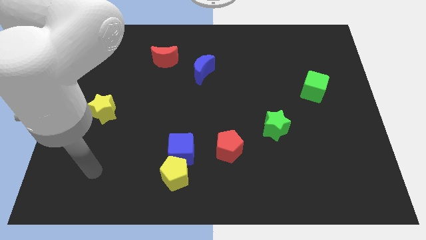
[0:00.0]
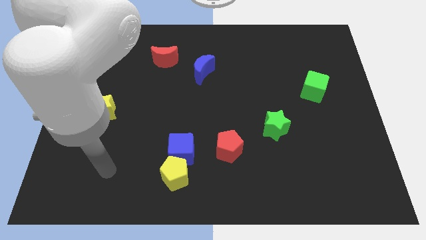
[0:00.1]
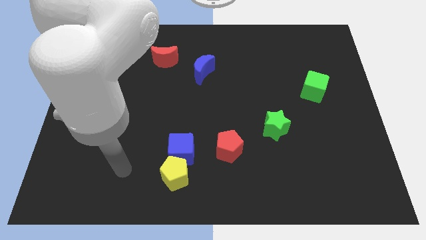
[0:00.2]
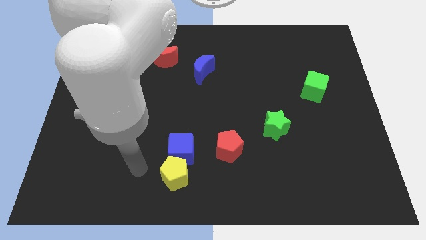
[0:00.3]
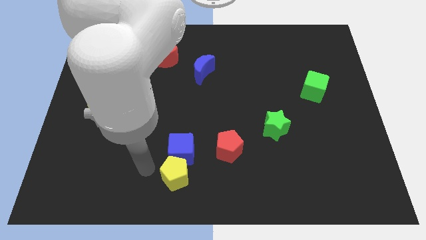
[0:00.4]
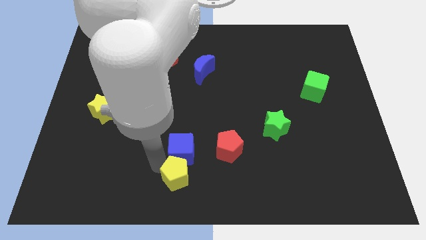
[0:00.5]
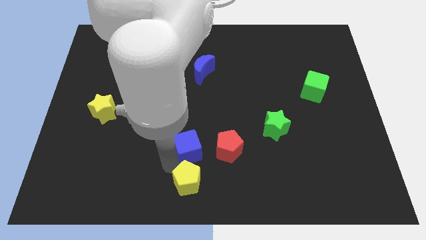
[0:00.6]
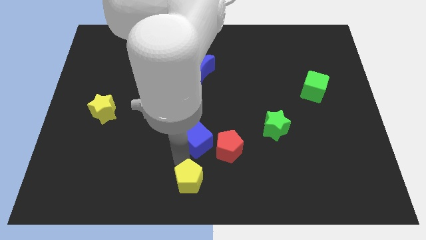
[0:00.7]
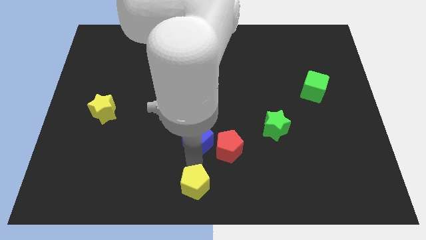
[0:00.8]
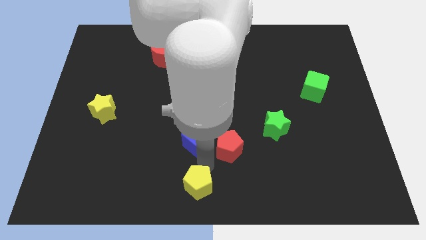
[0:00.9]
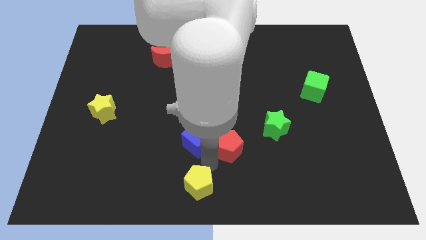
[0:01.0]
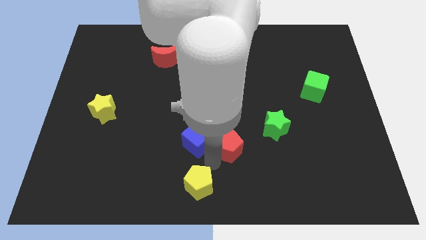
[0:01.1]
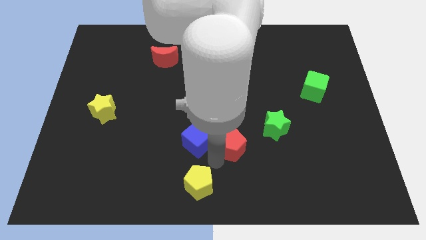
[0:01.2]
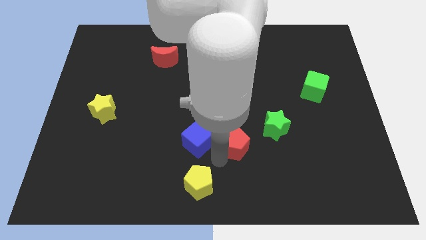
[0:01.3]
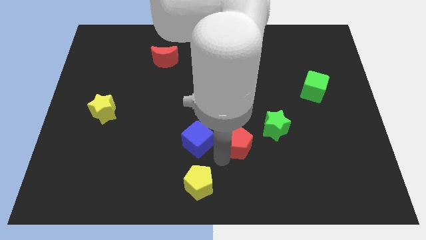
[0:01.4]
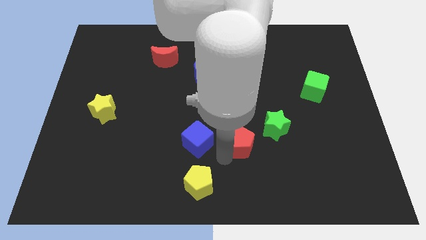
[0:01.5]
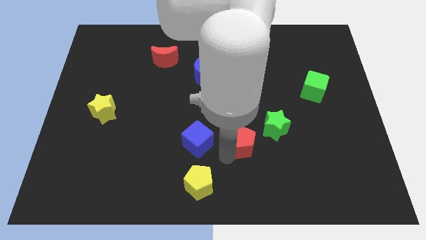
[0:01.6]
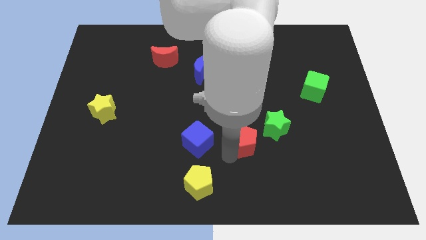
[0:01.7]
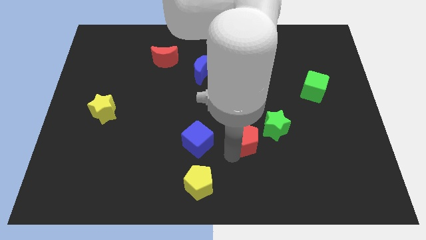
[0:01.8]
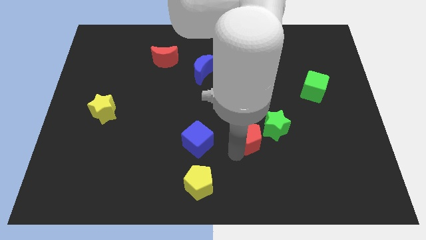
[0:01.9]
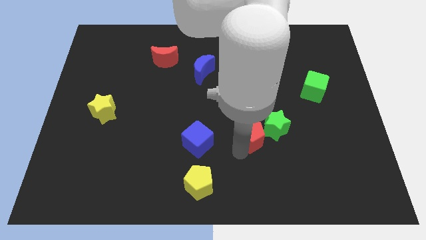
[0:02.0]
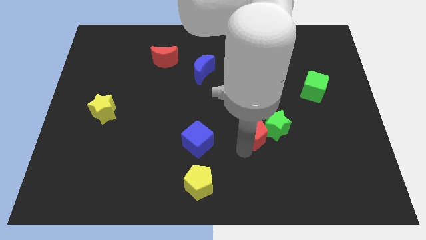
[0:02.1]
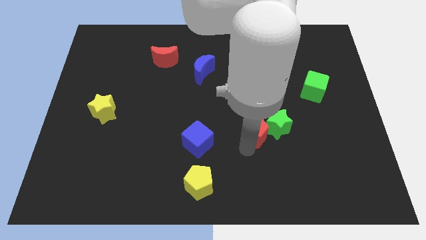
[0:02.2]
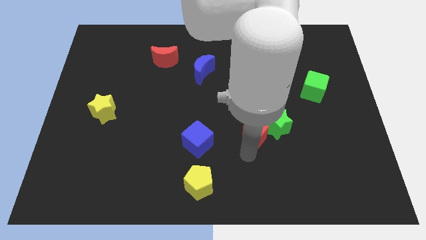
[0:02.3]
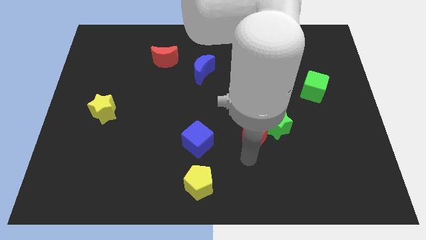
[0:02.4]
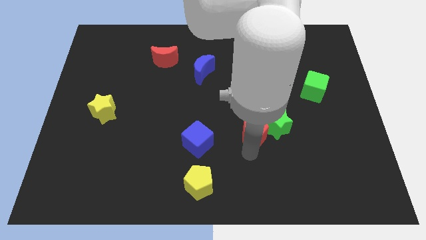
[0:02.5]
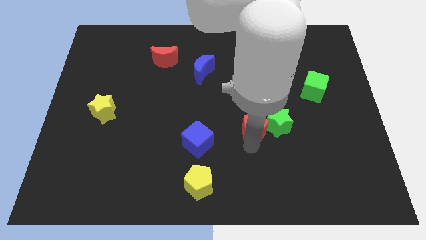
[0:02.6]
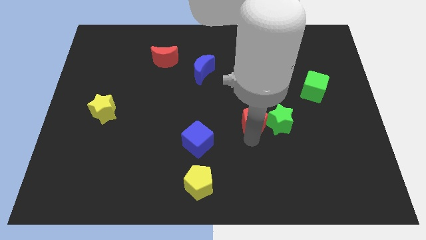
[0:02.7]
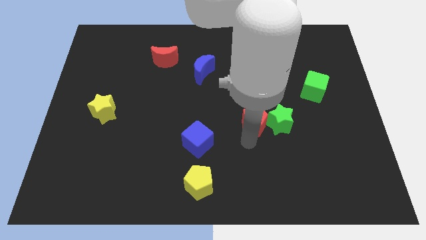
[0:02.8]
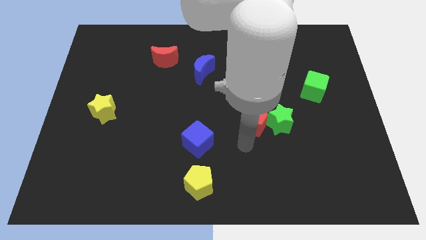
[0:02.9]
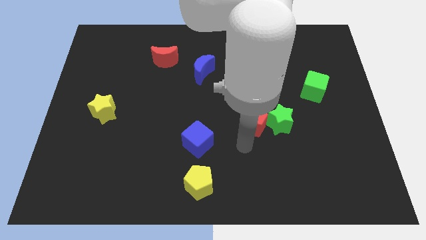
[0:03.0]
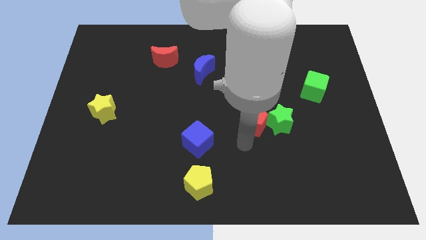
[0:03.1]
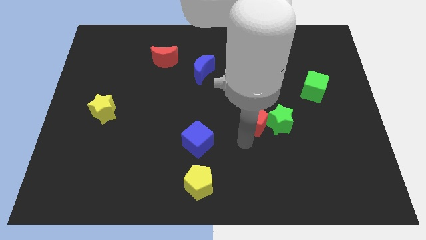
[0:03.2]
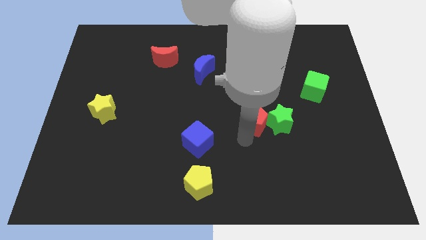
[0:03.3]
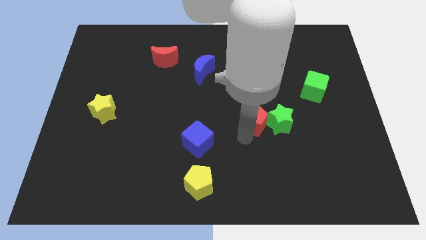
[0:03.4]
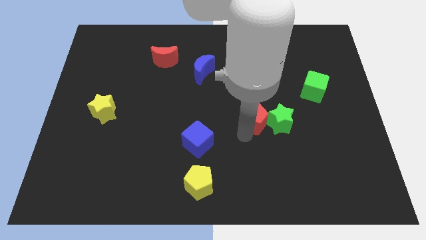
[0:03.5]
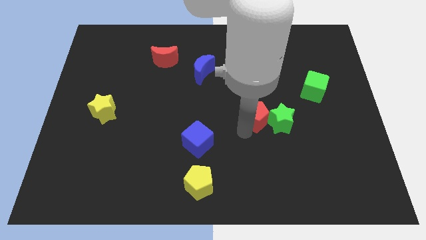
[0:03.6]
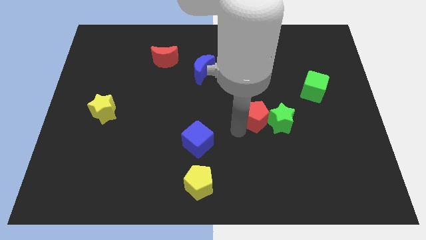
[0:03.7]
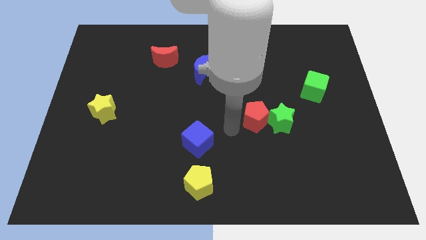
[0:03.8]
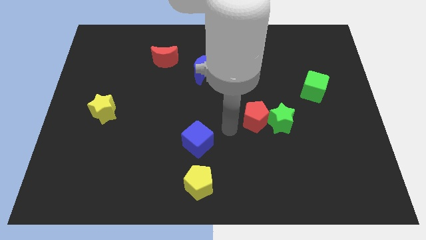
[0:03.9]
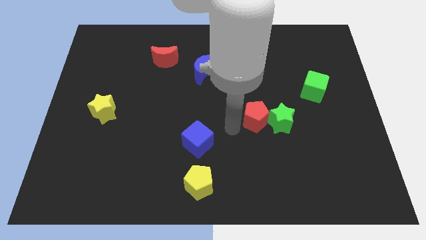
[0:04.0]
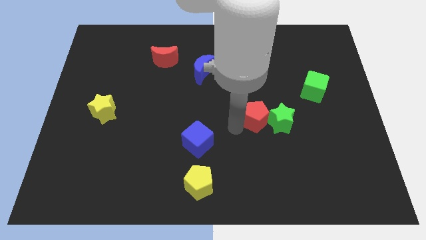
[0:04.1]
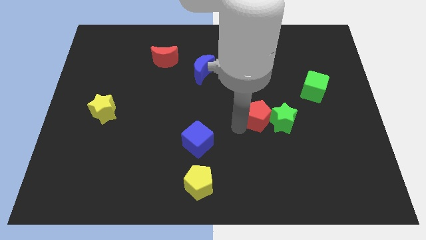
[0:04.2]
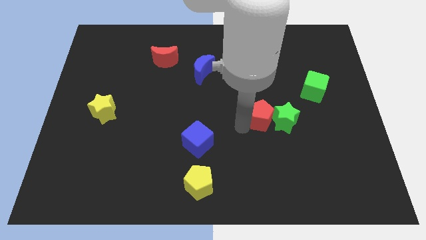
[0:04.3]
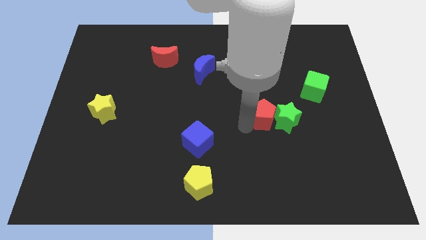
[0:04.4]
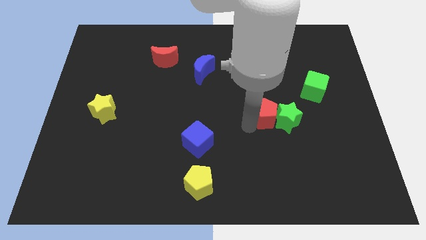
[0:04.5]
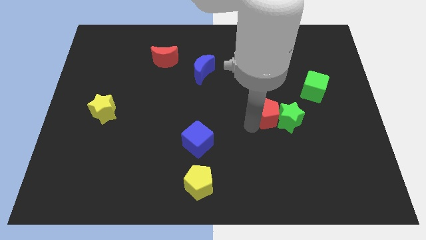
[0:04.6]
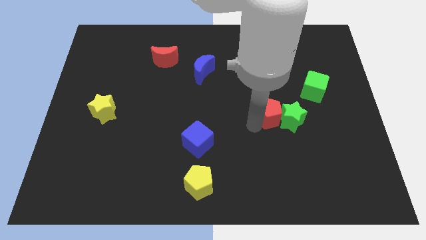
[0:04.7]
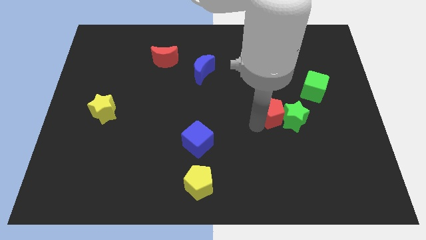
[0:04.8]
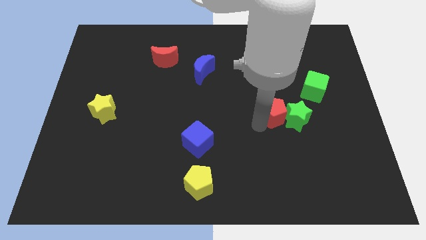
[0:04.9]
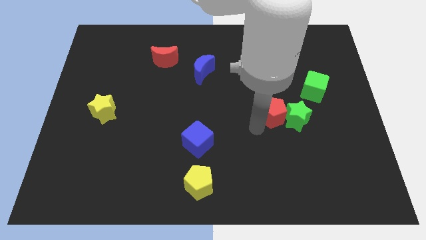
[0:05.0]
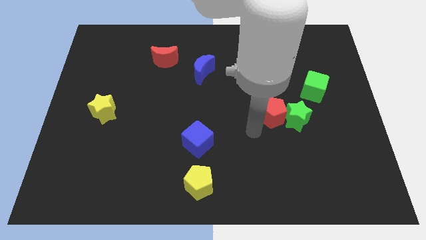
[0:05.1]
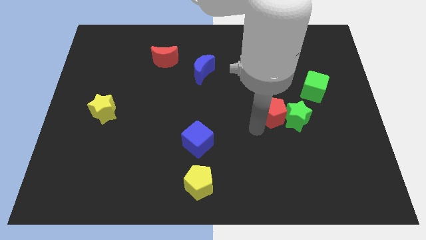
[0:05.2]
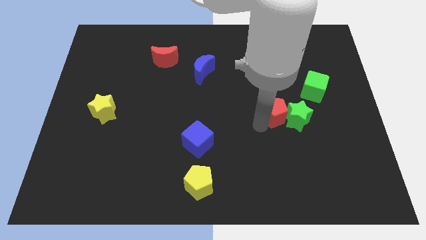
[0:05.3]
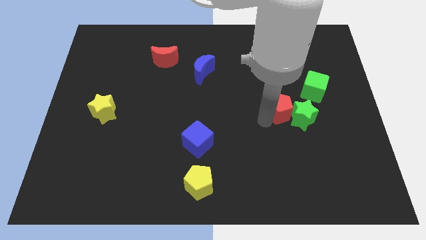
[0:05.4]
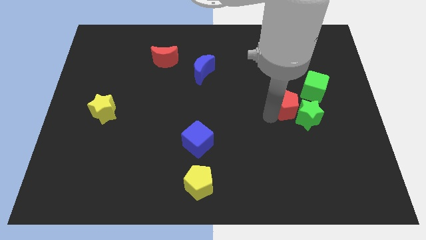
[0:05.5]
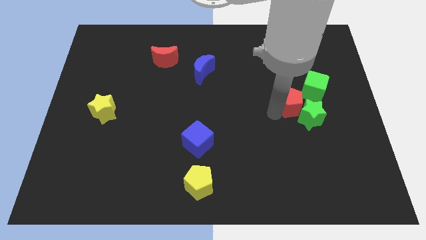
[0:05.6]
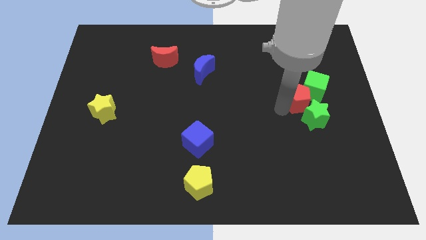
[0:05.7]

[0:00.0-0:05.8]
slide the red pentagon towards the green cube

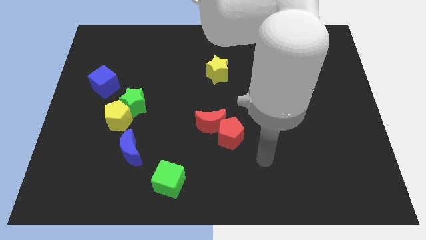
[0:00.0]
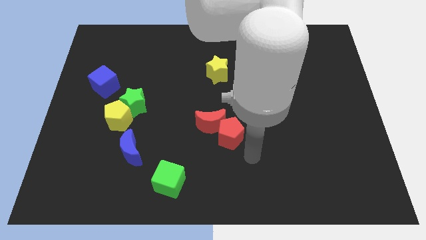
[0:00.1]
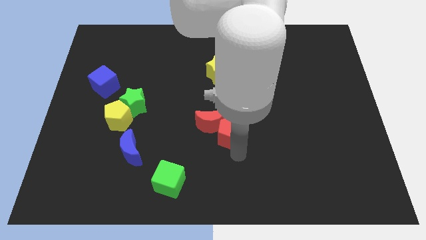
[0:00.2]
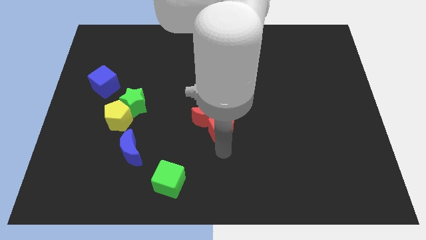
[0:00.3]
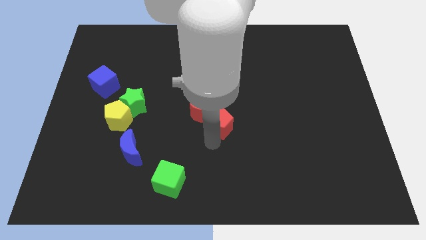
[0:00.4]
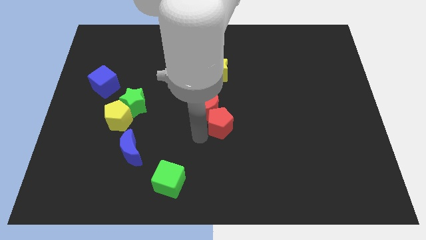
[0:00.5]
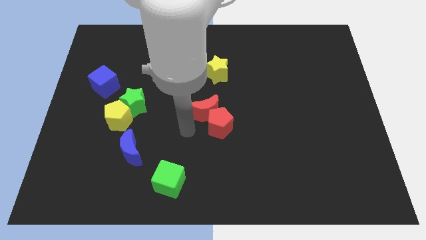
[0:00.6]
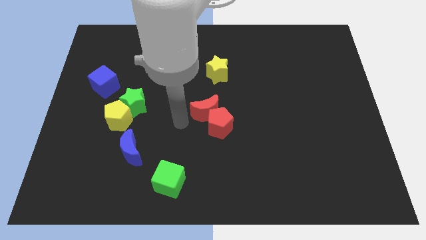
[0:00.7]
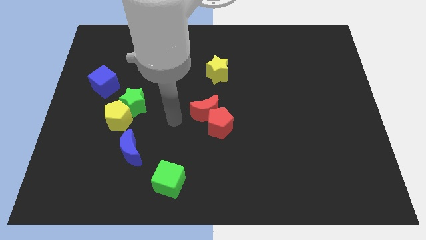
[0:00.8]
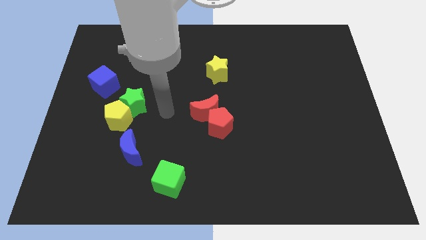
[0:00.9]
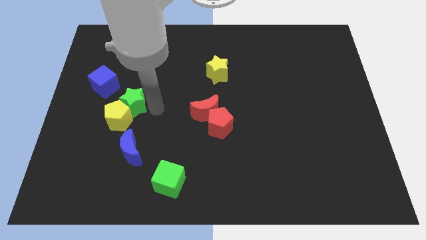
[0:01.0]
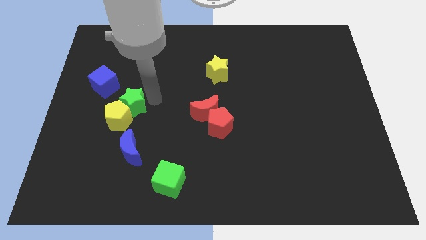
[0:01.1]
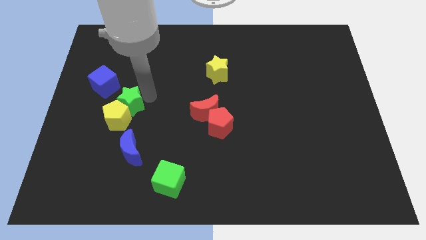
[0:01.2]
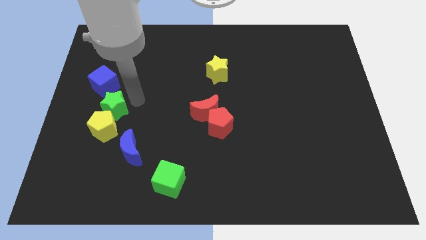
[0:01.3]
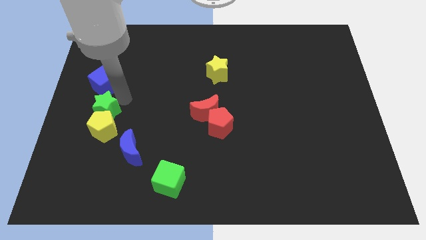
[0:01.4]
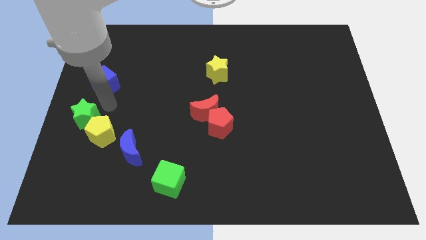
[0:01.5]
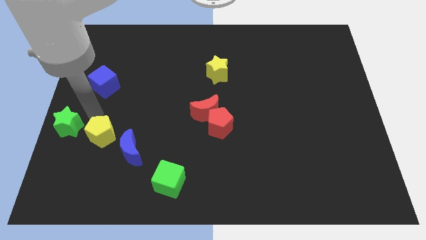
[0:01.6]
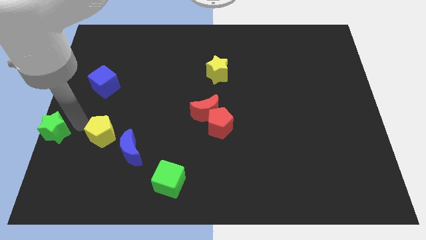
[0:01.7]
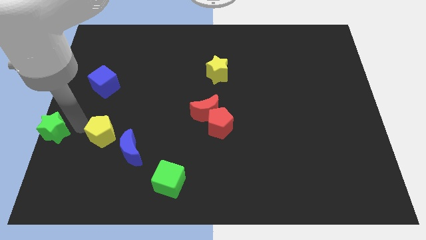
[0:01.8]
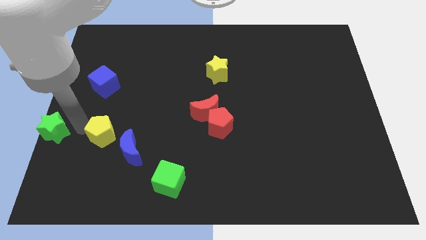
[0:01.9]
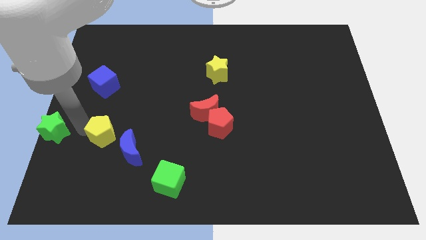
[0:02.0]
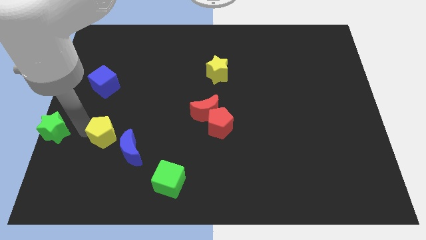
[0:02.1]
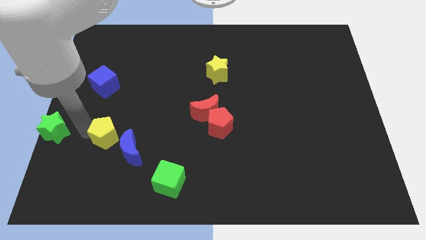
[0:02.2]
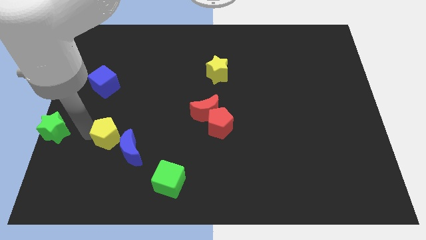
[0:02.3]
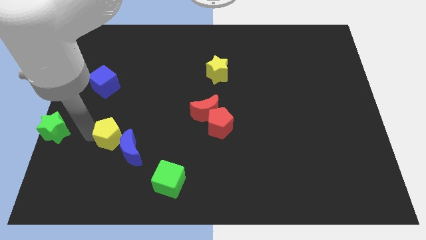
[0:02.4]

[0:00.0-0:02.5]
move the yellow pentagon towards the blue moon

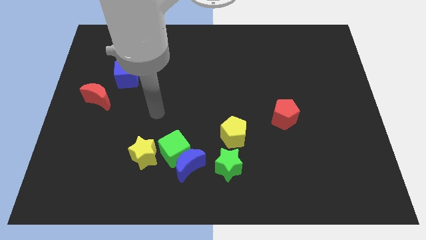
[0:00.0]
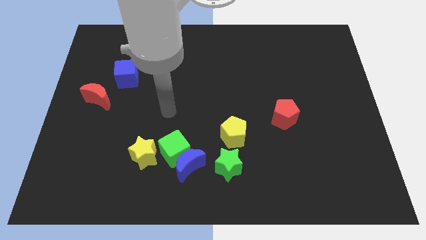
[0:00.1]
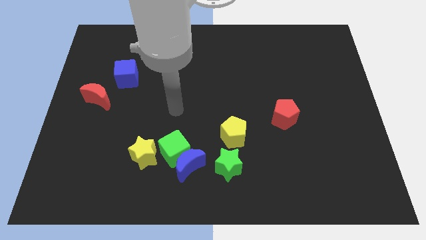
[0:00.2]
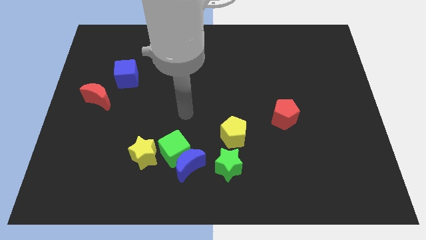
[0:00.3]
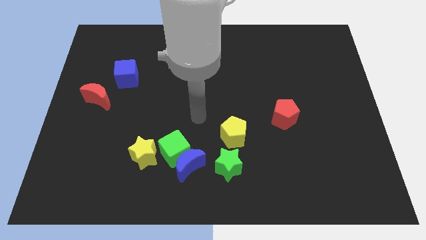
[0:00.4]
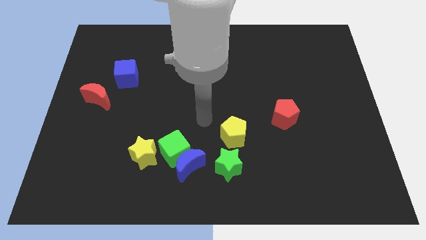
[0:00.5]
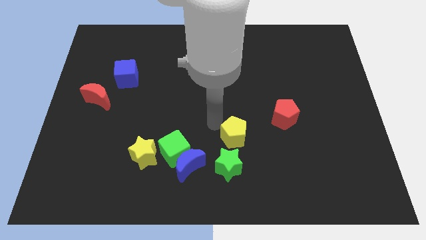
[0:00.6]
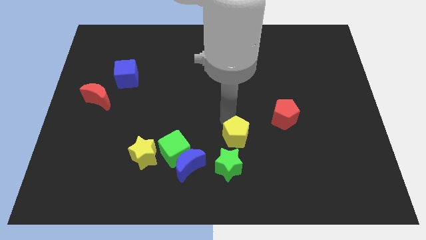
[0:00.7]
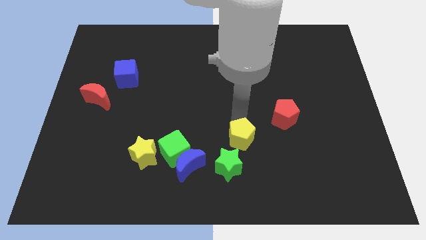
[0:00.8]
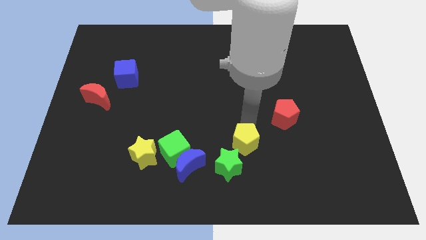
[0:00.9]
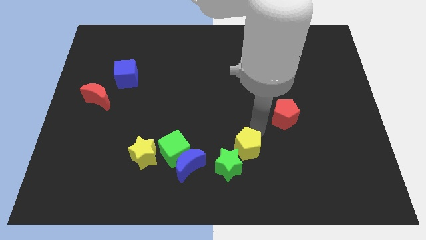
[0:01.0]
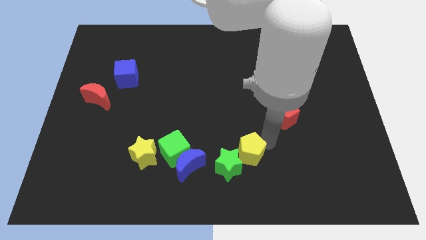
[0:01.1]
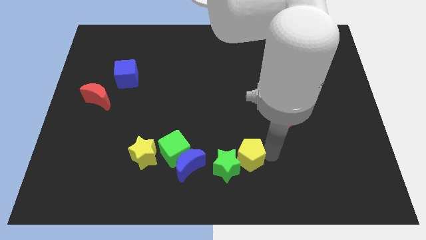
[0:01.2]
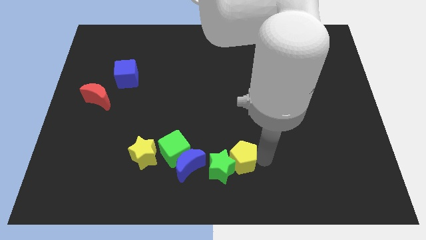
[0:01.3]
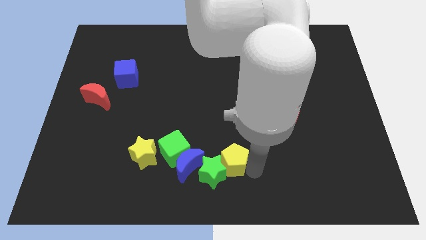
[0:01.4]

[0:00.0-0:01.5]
slide the green star next to the blue moon
